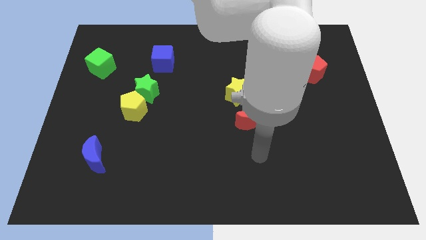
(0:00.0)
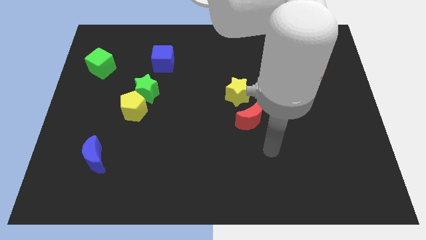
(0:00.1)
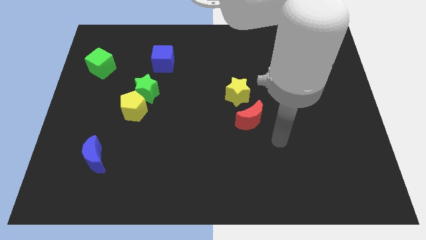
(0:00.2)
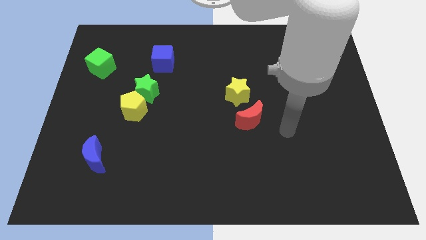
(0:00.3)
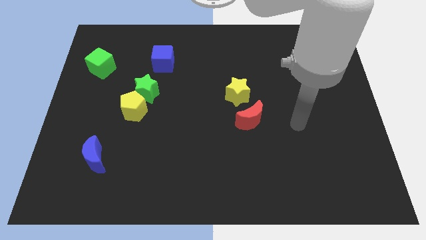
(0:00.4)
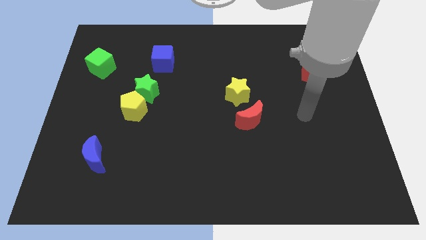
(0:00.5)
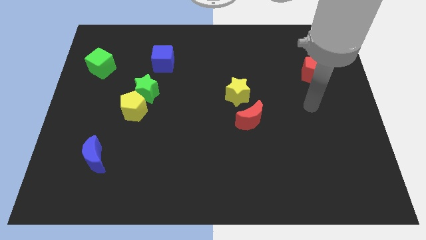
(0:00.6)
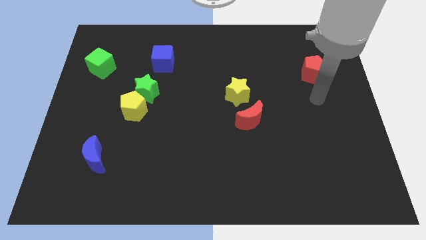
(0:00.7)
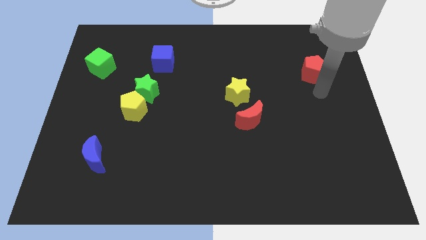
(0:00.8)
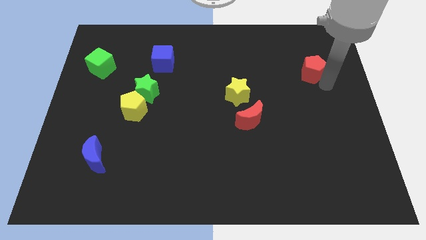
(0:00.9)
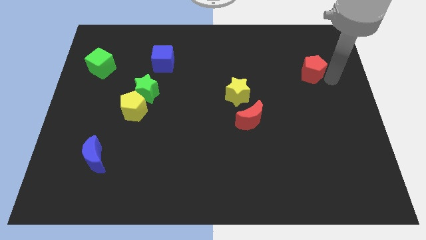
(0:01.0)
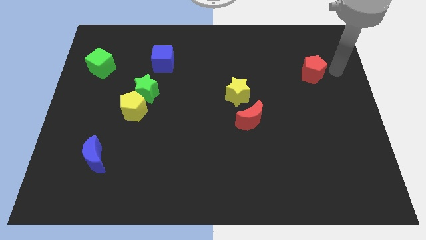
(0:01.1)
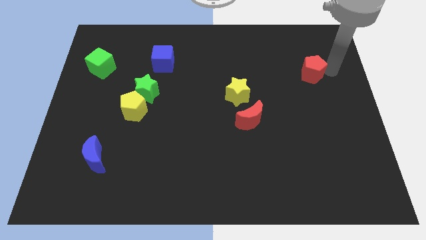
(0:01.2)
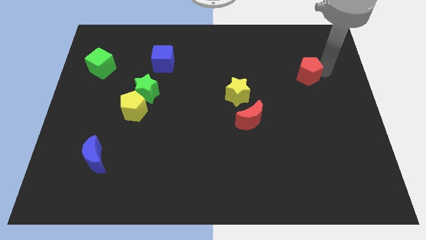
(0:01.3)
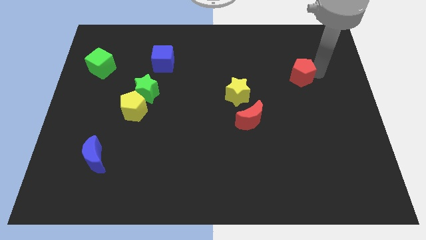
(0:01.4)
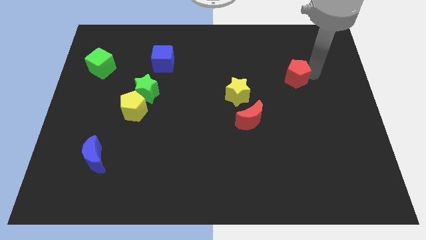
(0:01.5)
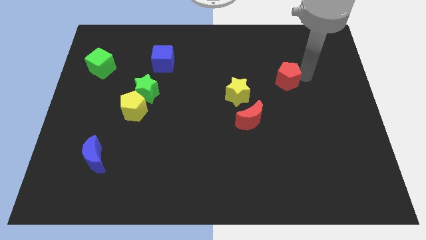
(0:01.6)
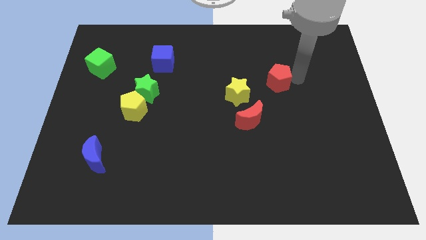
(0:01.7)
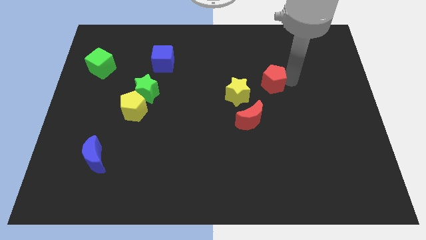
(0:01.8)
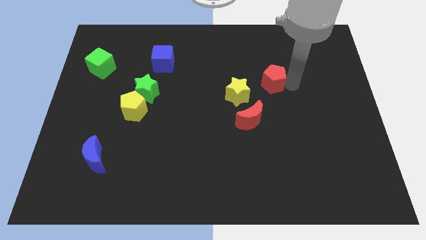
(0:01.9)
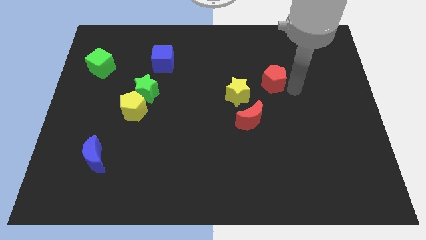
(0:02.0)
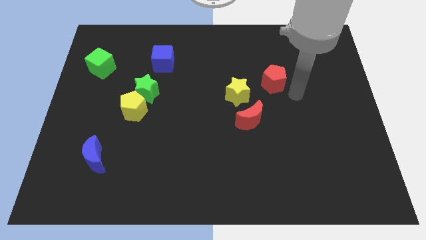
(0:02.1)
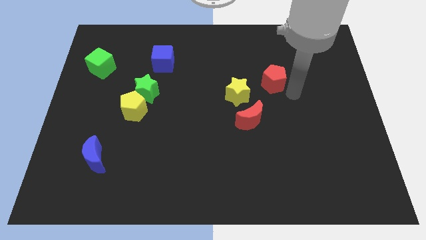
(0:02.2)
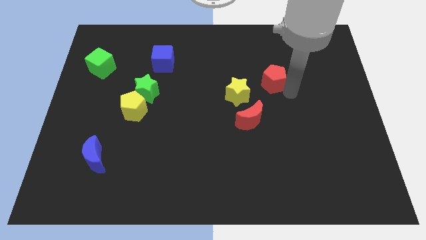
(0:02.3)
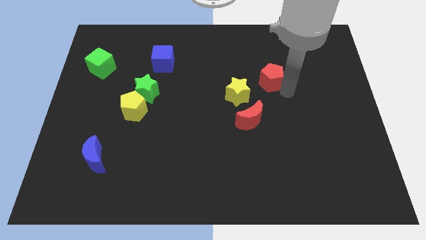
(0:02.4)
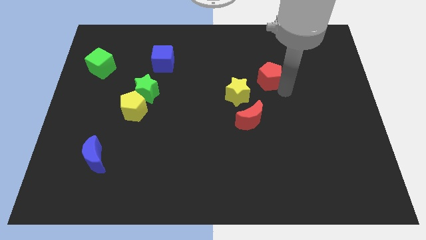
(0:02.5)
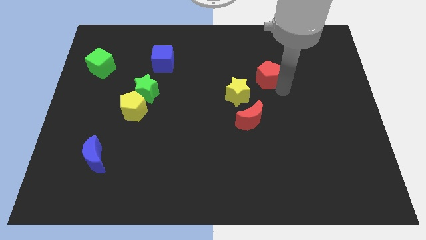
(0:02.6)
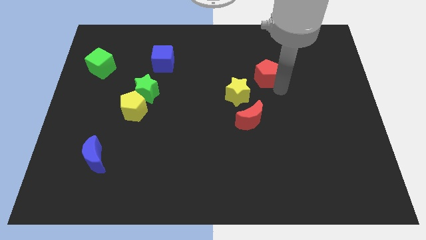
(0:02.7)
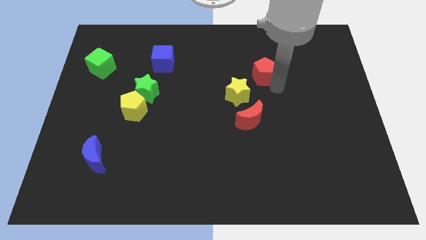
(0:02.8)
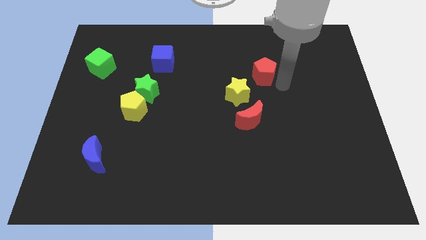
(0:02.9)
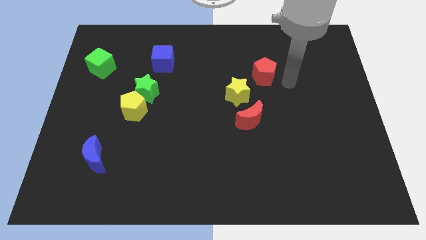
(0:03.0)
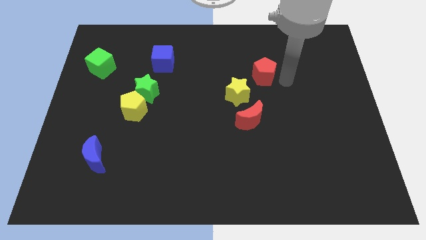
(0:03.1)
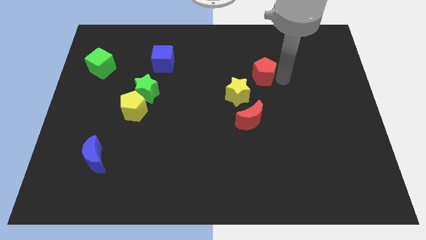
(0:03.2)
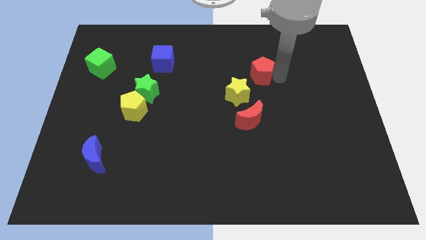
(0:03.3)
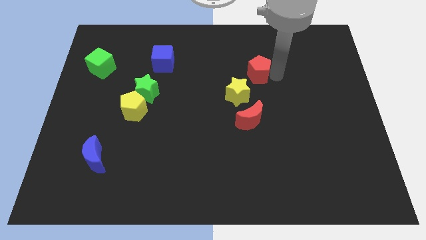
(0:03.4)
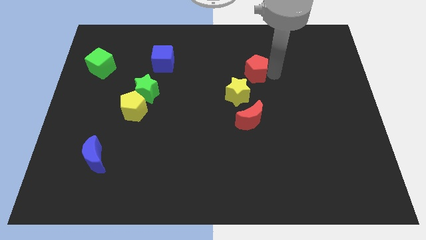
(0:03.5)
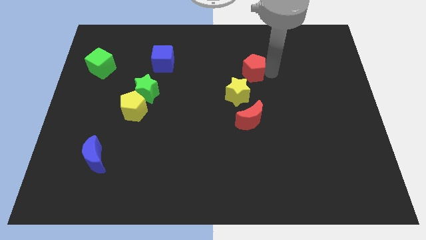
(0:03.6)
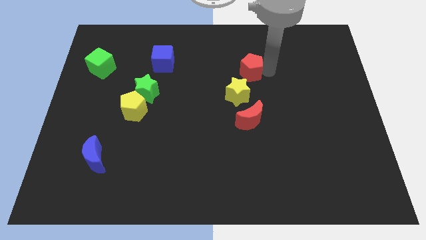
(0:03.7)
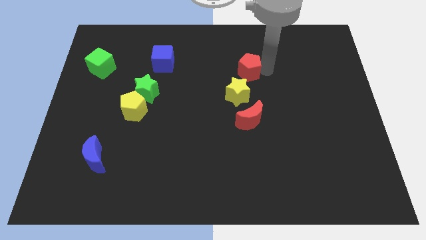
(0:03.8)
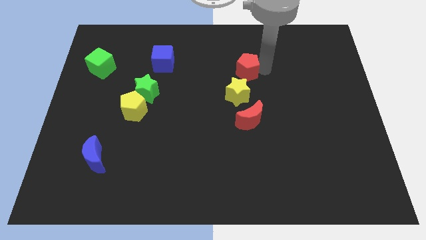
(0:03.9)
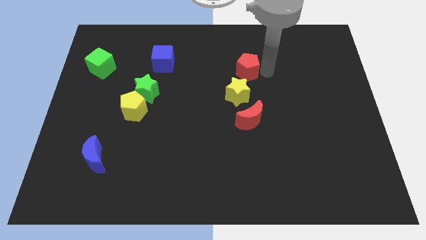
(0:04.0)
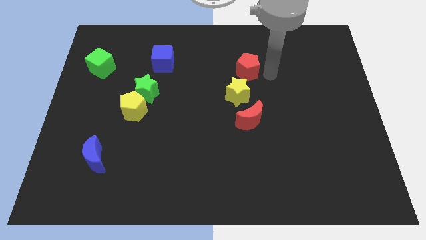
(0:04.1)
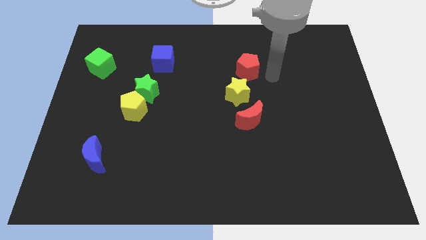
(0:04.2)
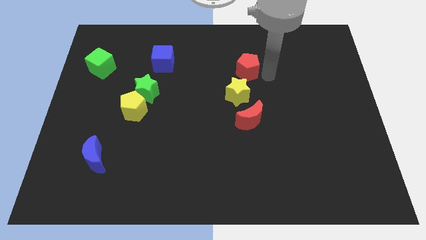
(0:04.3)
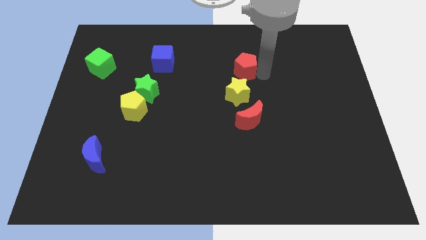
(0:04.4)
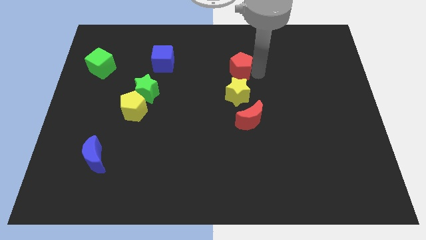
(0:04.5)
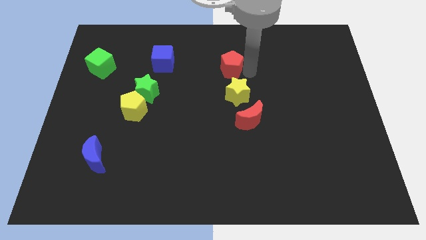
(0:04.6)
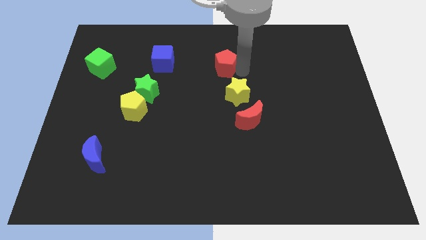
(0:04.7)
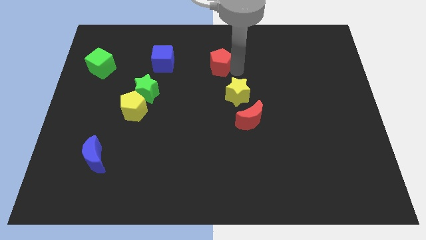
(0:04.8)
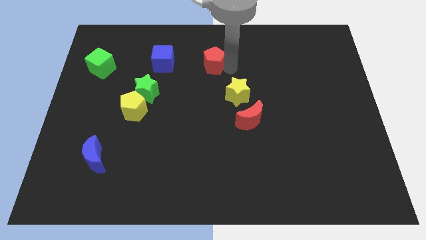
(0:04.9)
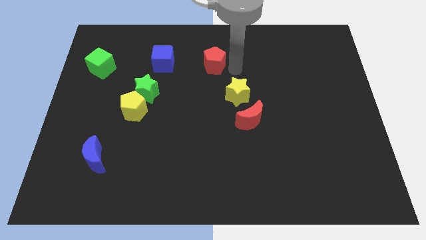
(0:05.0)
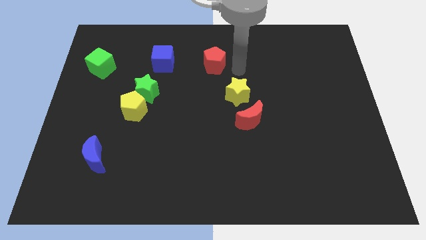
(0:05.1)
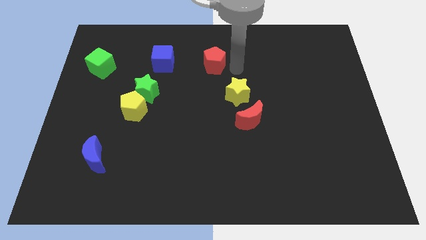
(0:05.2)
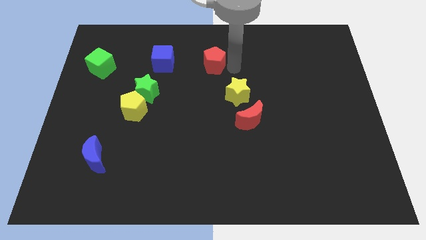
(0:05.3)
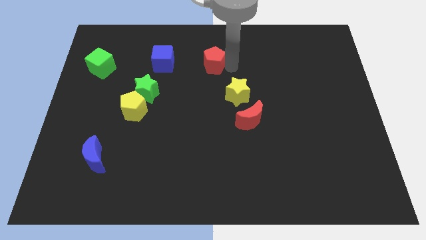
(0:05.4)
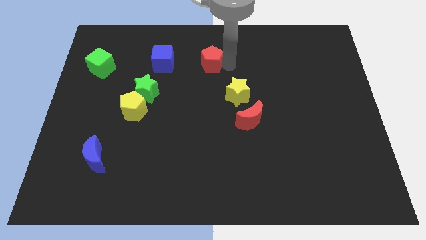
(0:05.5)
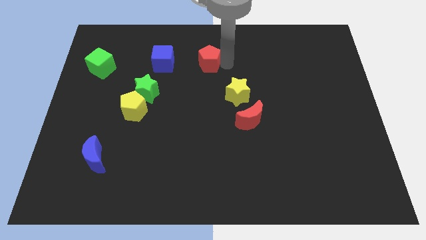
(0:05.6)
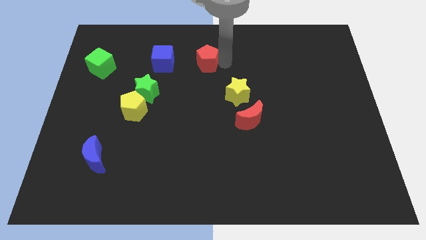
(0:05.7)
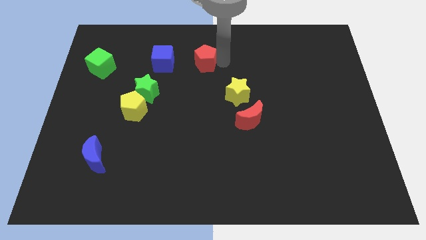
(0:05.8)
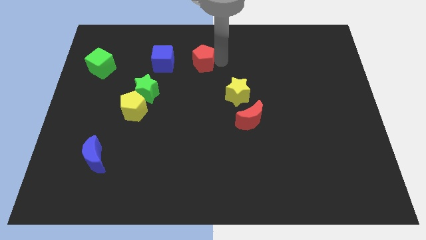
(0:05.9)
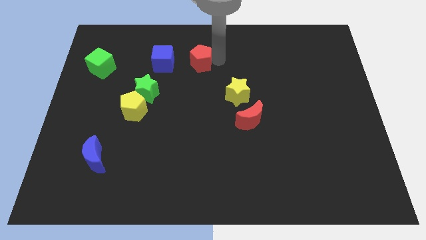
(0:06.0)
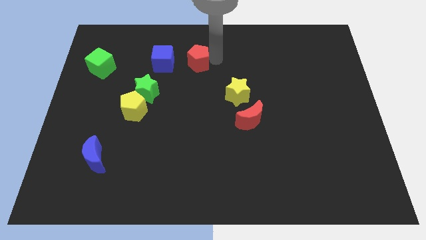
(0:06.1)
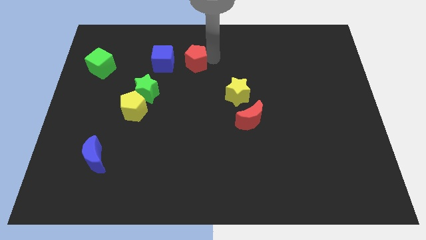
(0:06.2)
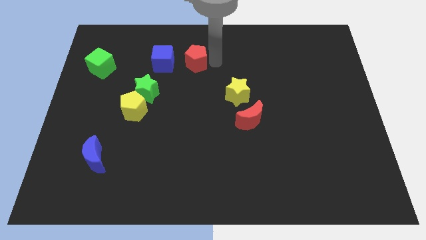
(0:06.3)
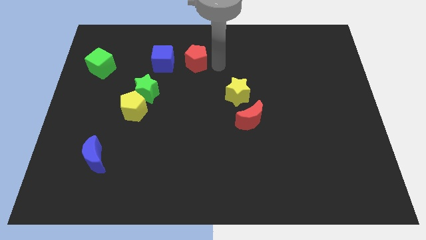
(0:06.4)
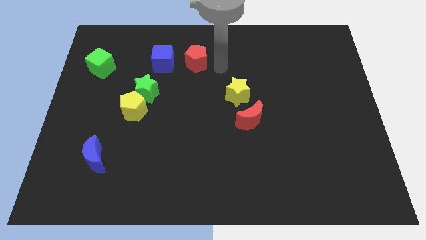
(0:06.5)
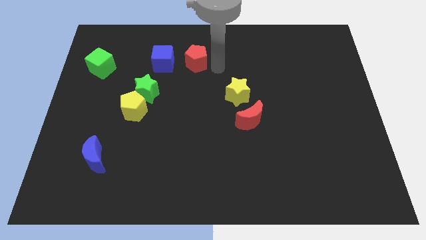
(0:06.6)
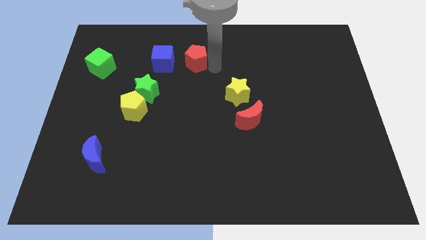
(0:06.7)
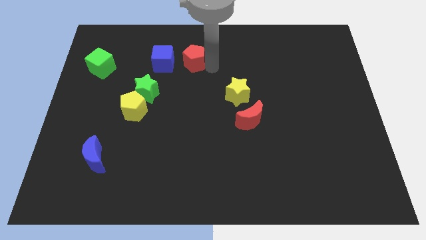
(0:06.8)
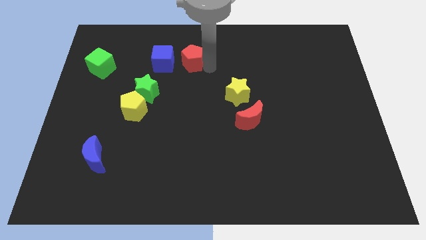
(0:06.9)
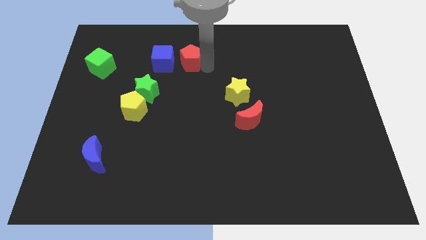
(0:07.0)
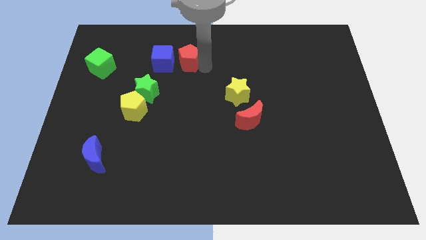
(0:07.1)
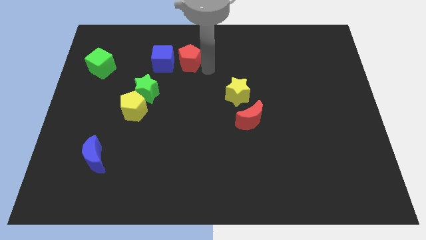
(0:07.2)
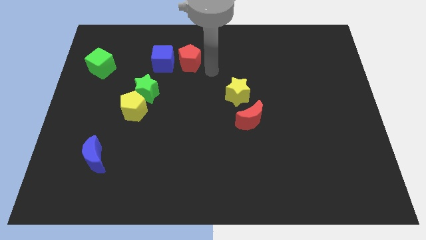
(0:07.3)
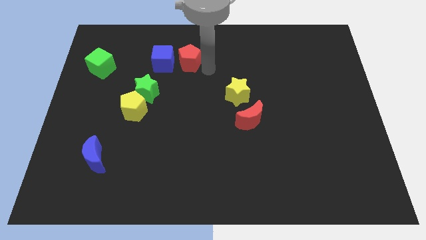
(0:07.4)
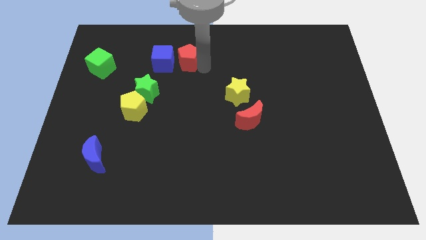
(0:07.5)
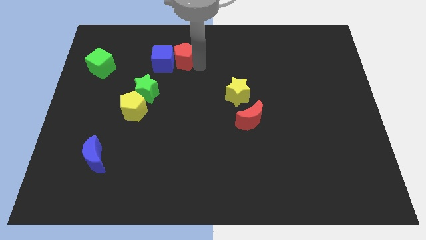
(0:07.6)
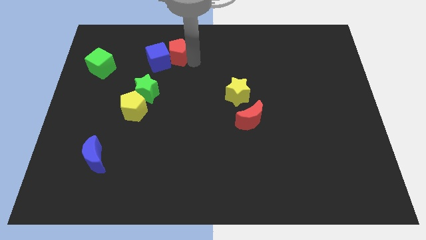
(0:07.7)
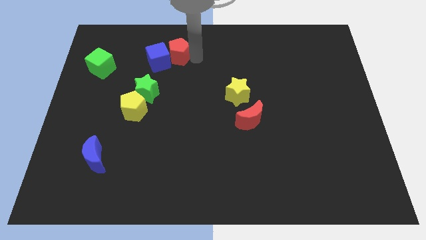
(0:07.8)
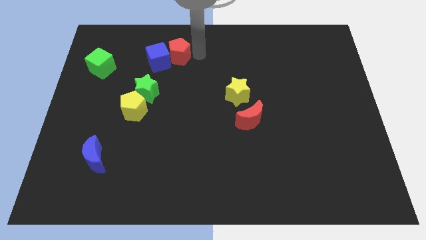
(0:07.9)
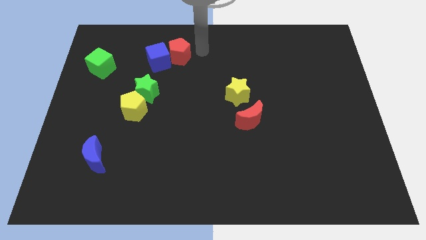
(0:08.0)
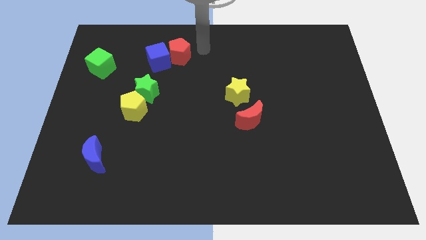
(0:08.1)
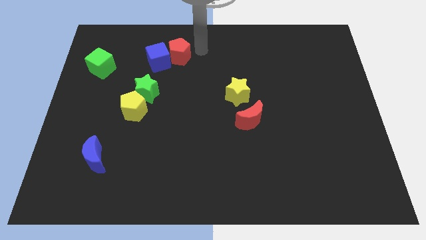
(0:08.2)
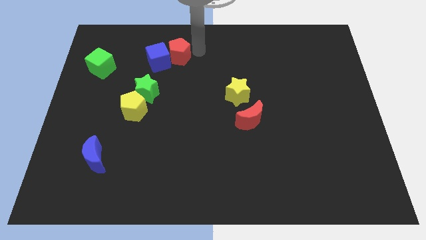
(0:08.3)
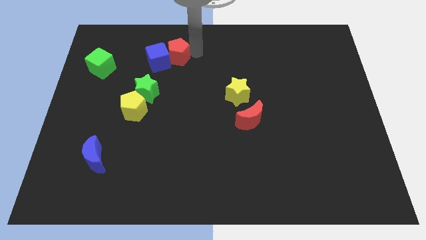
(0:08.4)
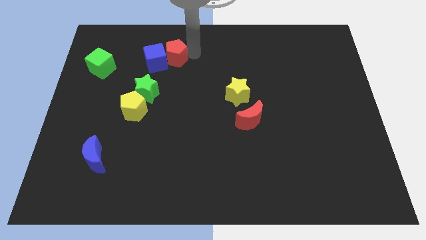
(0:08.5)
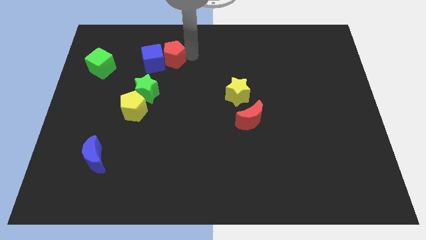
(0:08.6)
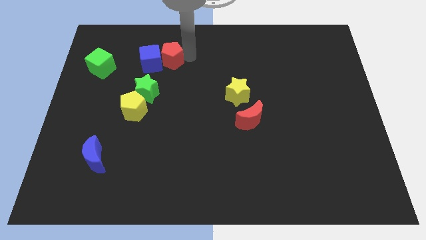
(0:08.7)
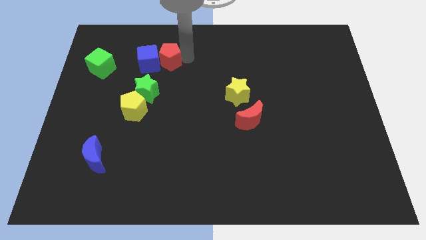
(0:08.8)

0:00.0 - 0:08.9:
push the red pentagon above the green star
